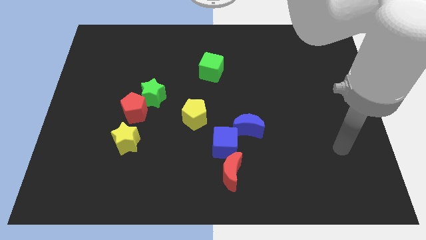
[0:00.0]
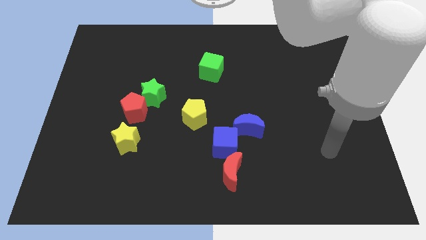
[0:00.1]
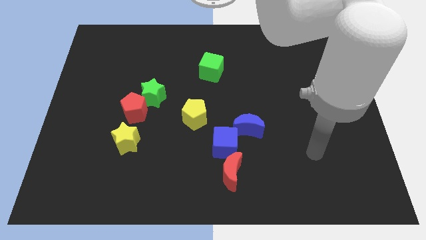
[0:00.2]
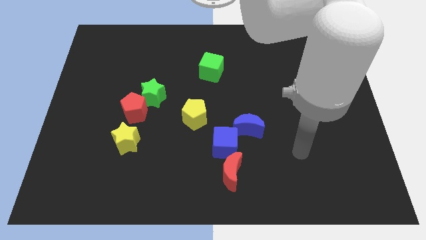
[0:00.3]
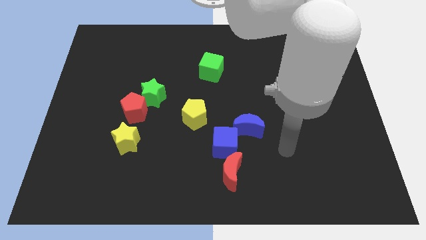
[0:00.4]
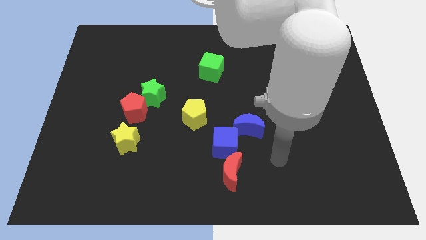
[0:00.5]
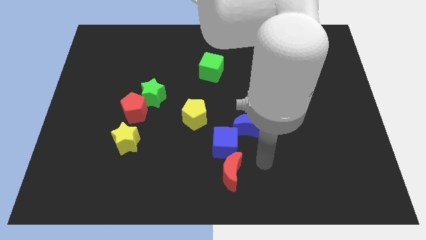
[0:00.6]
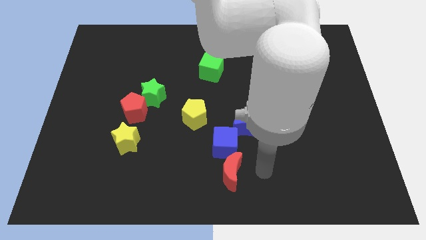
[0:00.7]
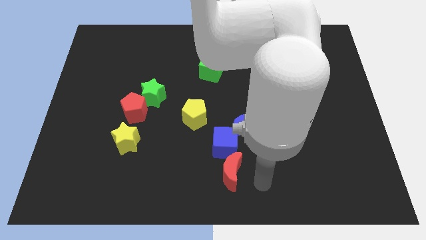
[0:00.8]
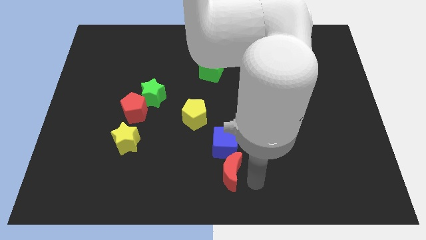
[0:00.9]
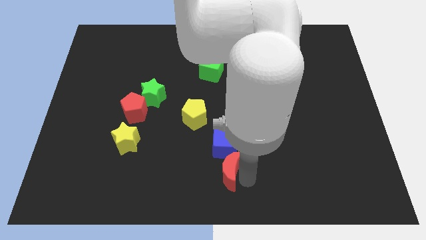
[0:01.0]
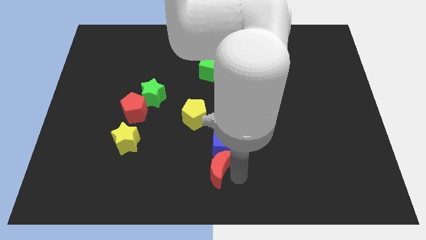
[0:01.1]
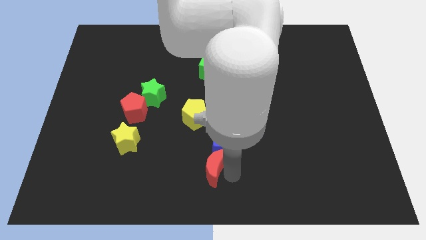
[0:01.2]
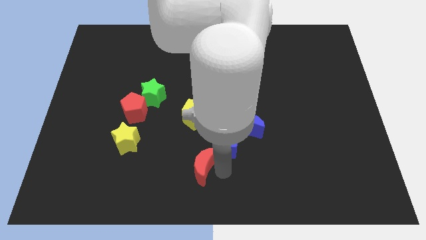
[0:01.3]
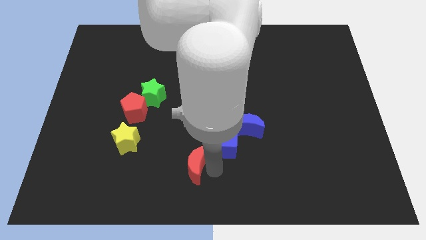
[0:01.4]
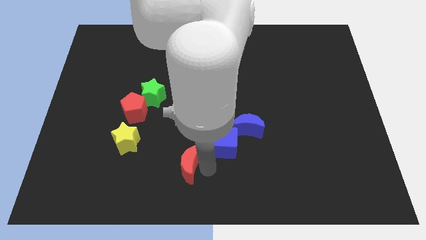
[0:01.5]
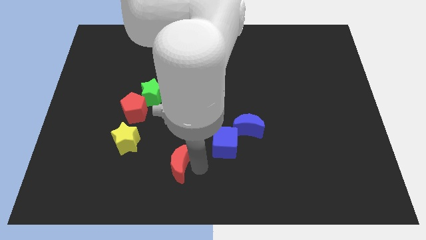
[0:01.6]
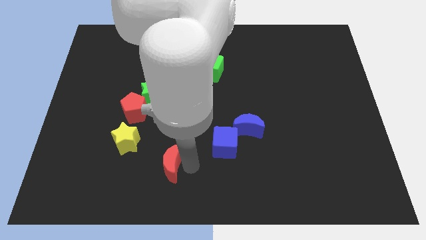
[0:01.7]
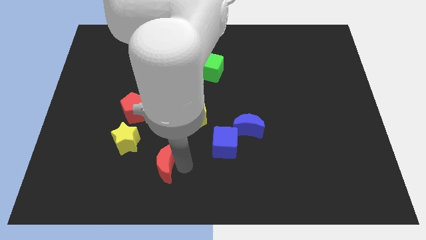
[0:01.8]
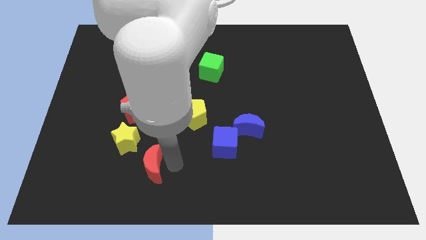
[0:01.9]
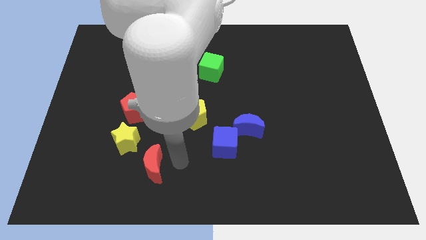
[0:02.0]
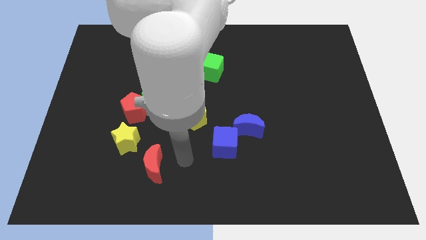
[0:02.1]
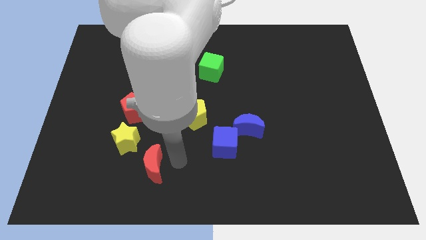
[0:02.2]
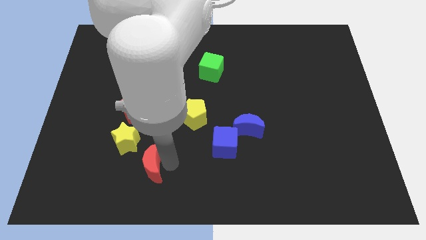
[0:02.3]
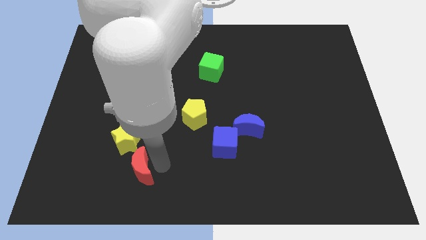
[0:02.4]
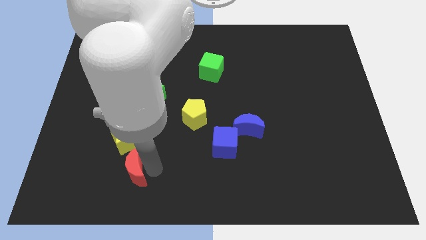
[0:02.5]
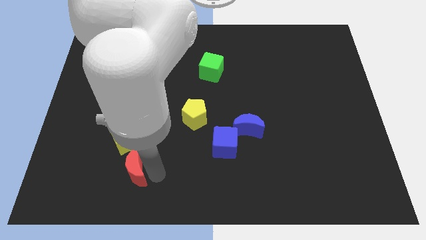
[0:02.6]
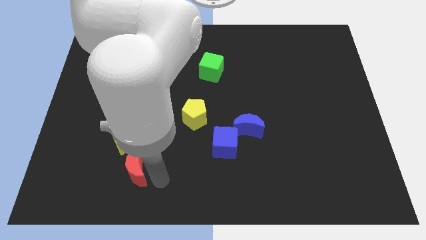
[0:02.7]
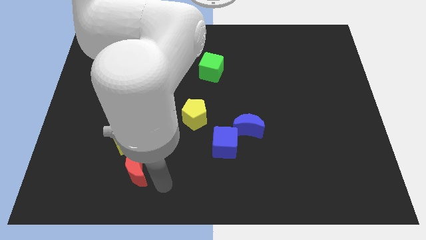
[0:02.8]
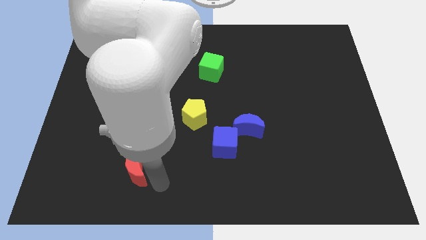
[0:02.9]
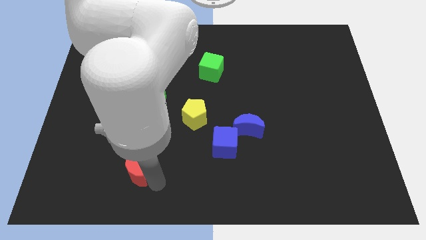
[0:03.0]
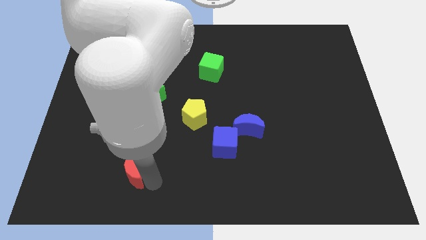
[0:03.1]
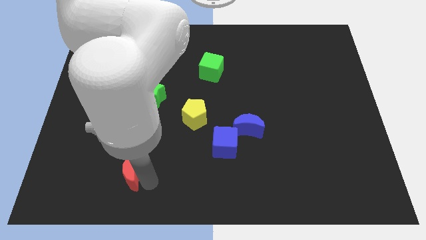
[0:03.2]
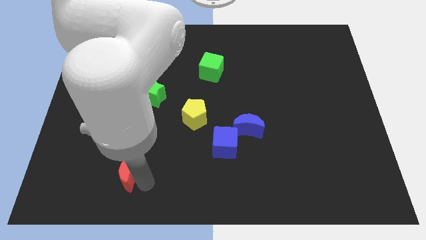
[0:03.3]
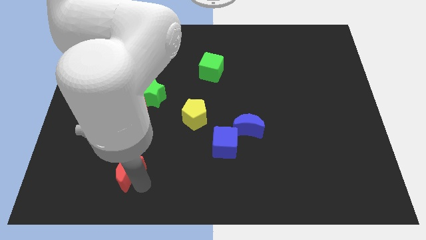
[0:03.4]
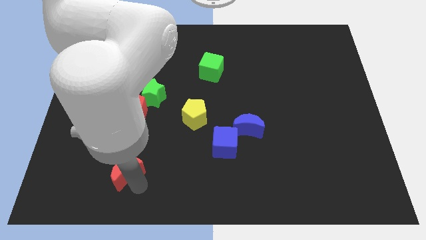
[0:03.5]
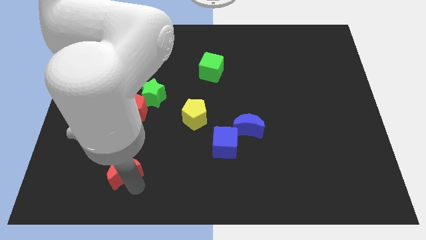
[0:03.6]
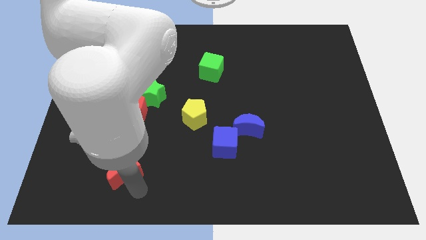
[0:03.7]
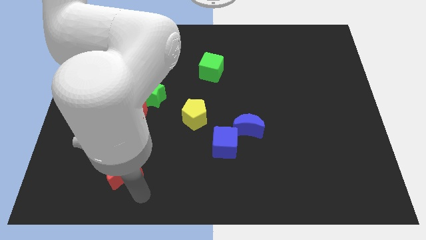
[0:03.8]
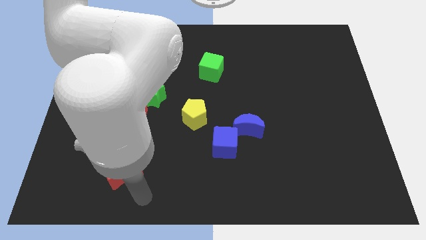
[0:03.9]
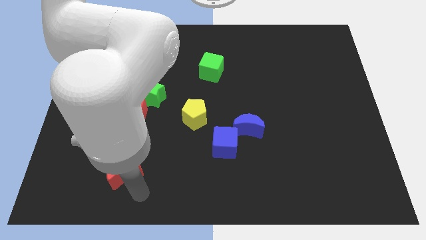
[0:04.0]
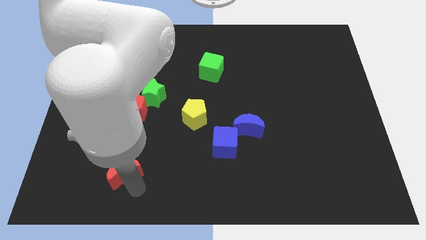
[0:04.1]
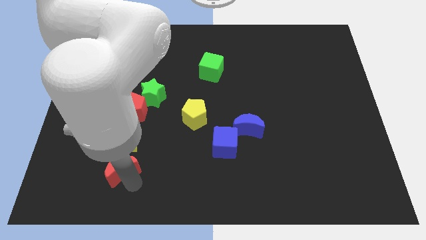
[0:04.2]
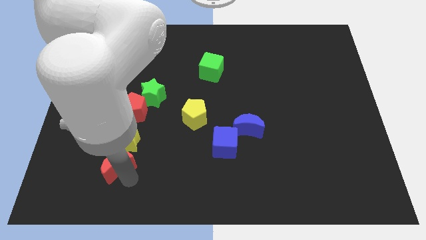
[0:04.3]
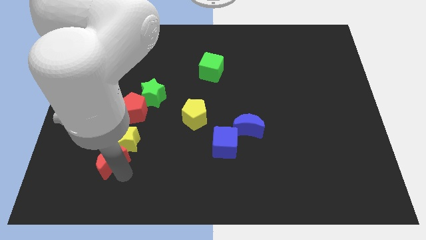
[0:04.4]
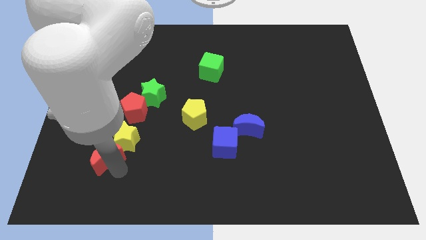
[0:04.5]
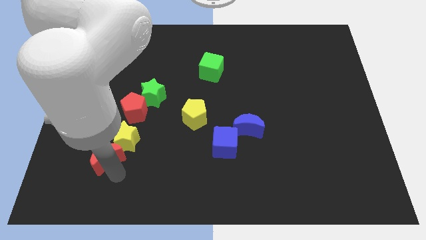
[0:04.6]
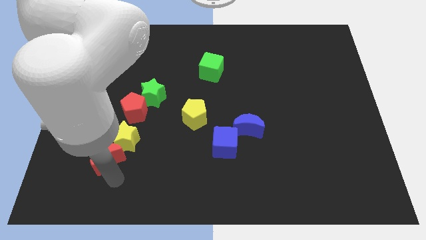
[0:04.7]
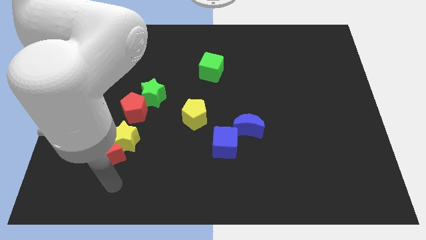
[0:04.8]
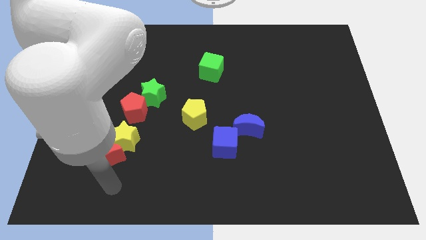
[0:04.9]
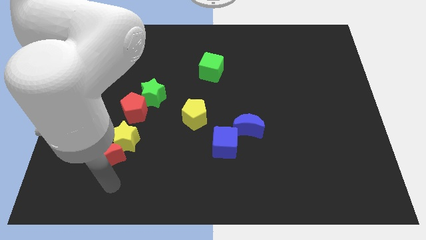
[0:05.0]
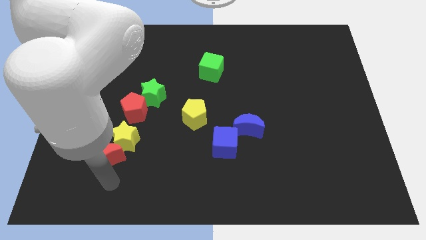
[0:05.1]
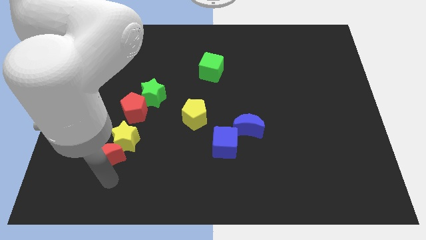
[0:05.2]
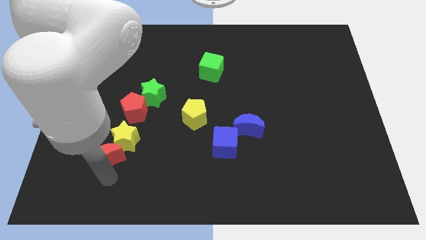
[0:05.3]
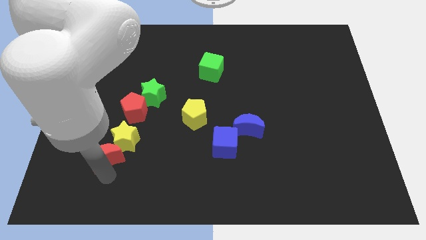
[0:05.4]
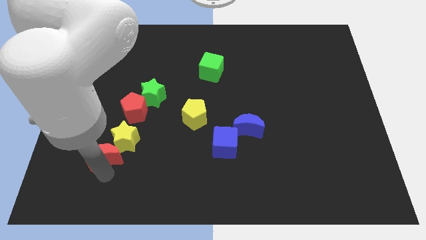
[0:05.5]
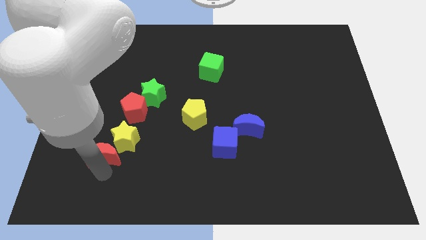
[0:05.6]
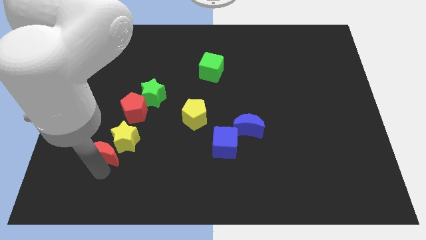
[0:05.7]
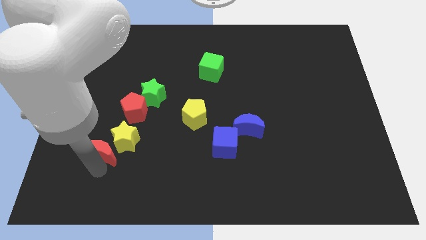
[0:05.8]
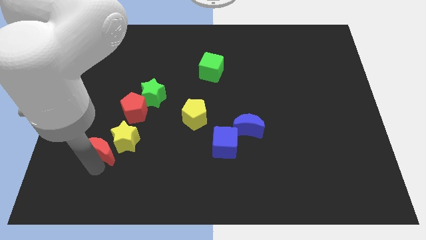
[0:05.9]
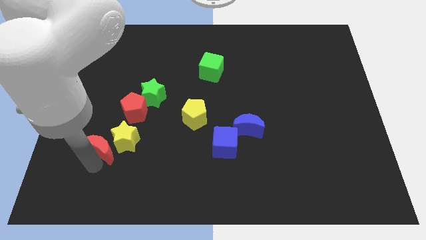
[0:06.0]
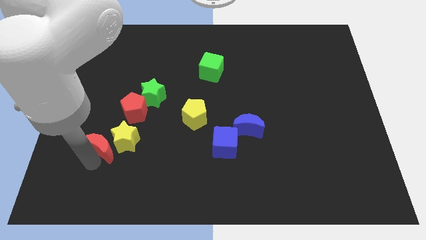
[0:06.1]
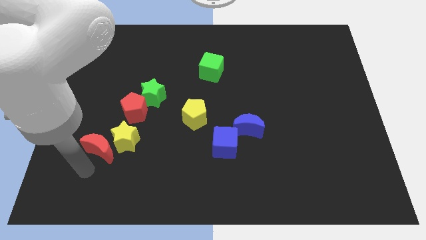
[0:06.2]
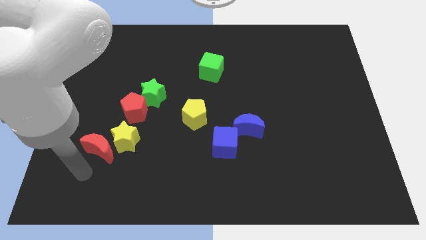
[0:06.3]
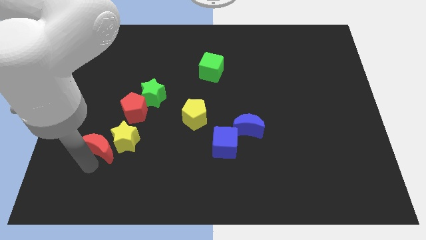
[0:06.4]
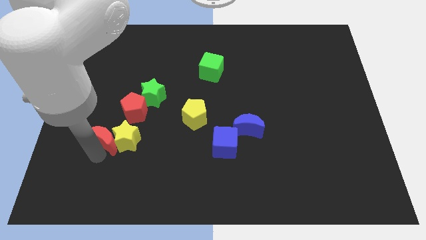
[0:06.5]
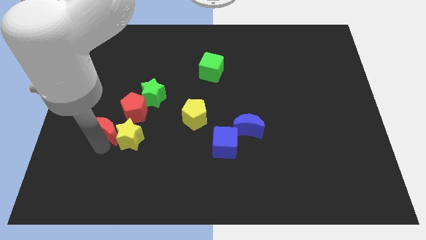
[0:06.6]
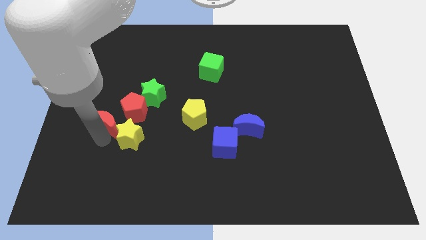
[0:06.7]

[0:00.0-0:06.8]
push the red moon diagonally down and to the left of the green star
